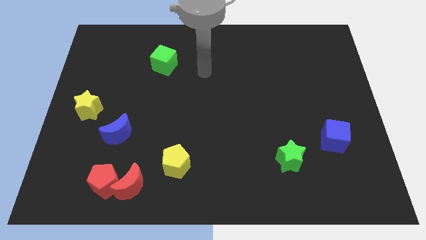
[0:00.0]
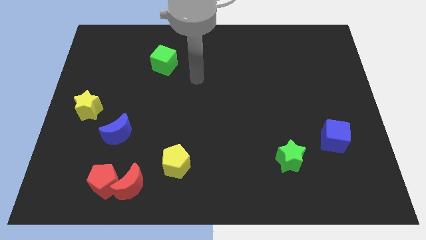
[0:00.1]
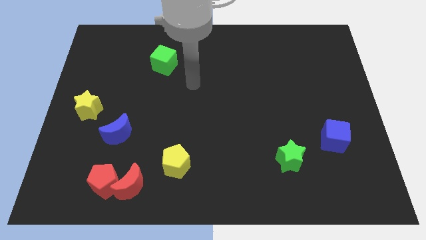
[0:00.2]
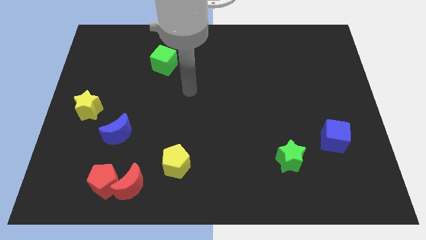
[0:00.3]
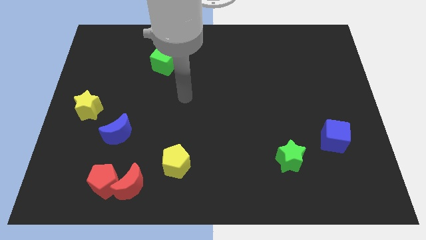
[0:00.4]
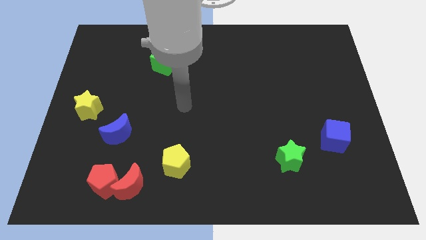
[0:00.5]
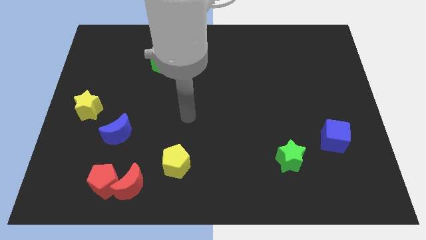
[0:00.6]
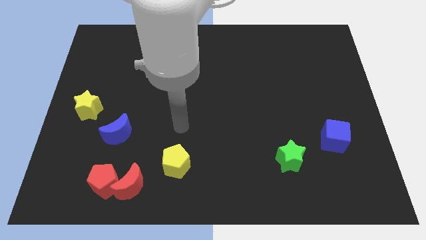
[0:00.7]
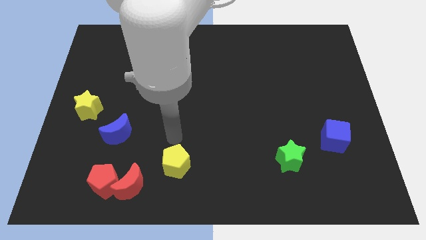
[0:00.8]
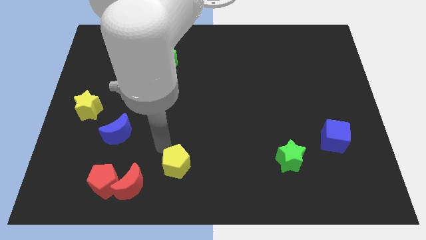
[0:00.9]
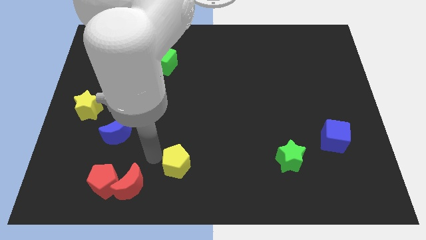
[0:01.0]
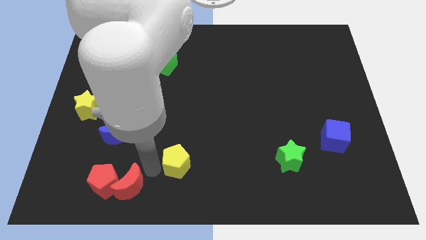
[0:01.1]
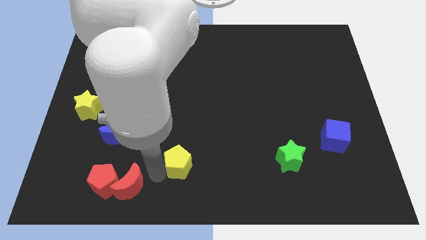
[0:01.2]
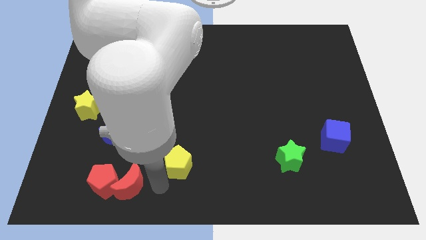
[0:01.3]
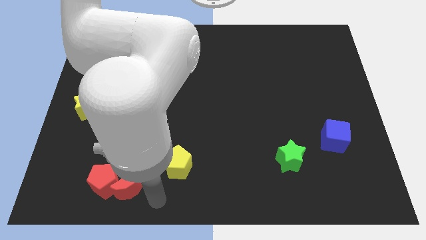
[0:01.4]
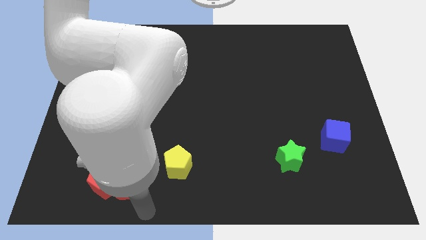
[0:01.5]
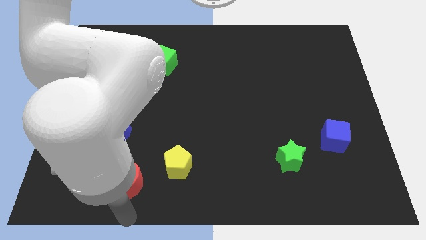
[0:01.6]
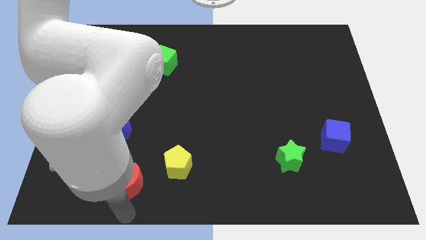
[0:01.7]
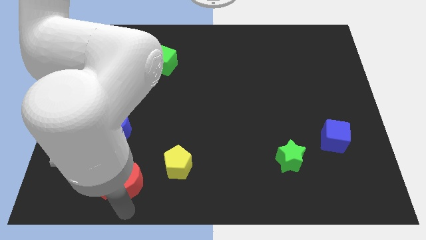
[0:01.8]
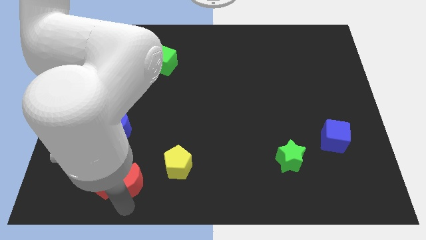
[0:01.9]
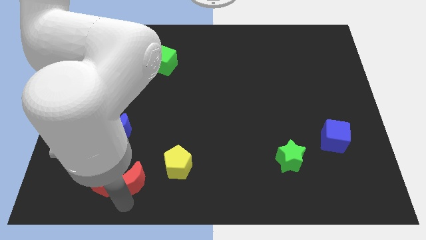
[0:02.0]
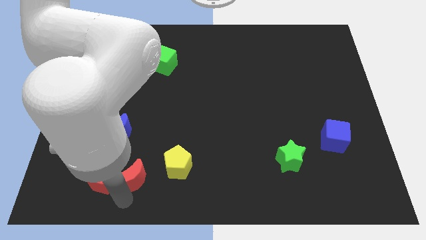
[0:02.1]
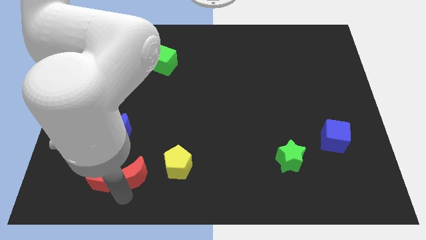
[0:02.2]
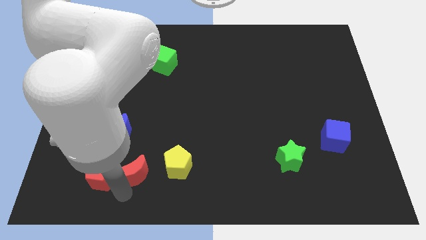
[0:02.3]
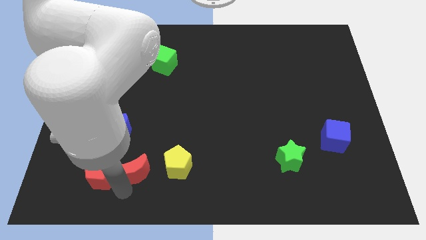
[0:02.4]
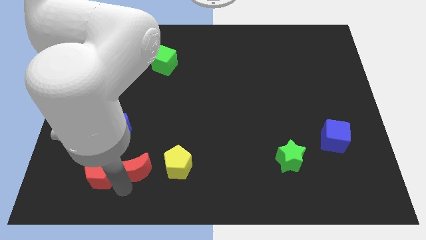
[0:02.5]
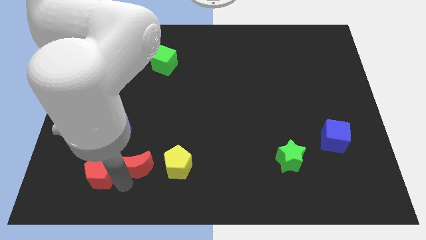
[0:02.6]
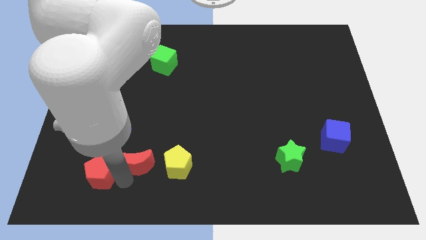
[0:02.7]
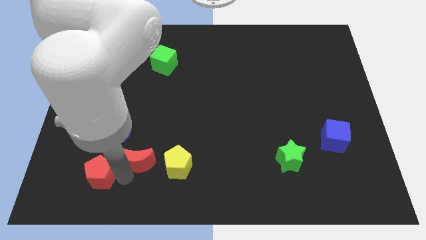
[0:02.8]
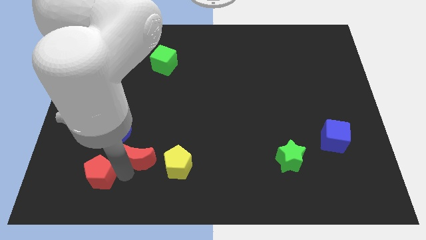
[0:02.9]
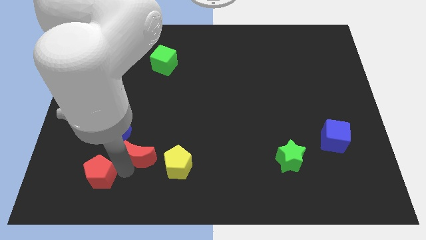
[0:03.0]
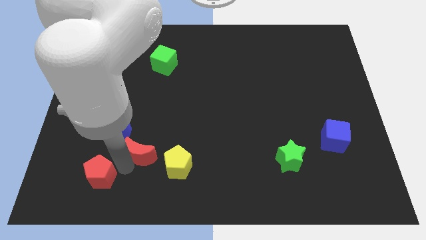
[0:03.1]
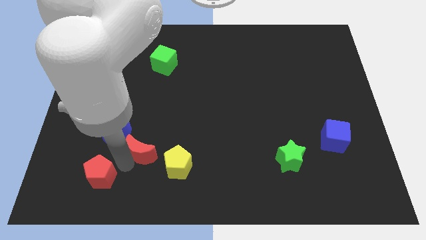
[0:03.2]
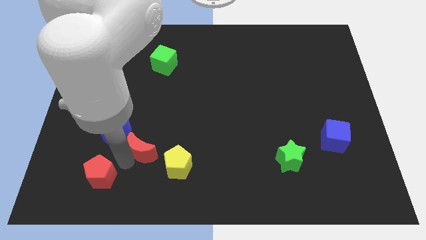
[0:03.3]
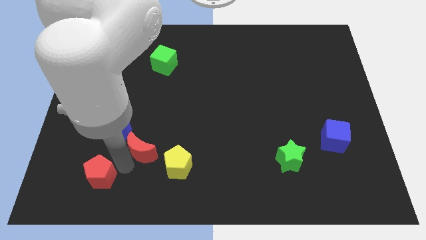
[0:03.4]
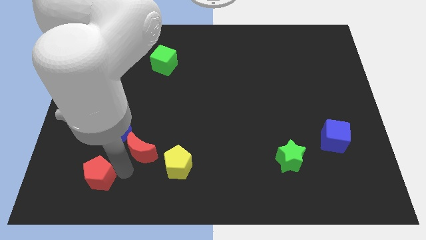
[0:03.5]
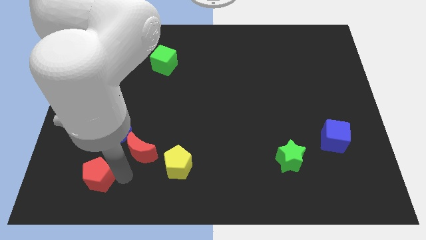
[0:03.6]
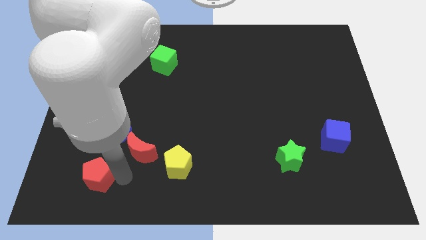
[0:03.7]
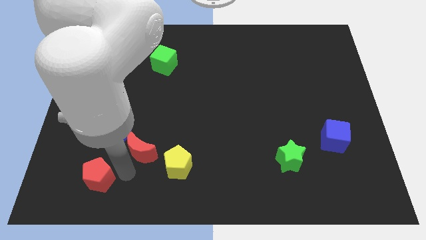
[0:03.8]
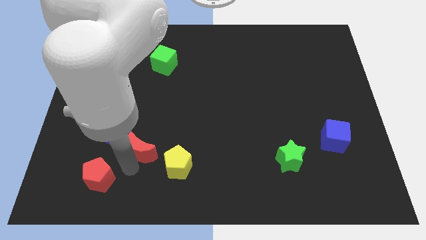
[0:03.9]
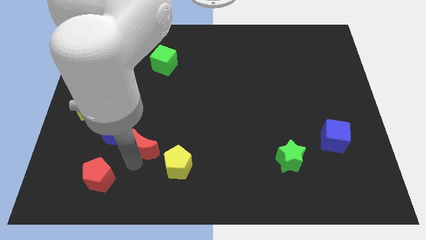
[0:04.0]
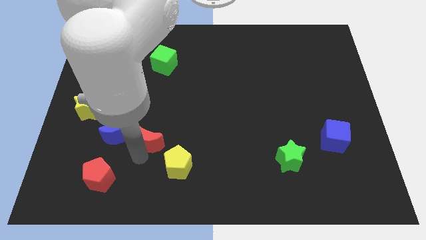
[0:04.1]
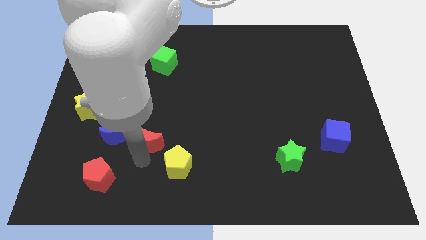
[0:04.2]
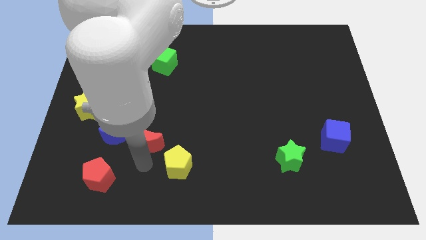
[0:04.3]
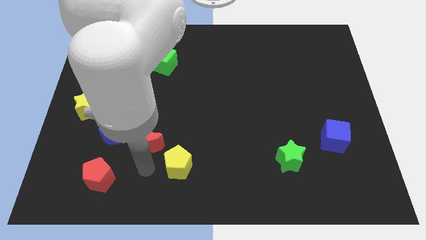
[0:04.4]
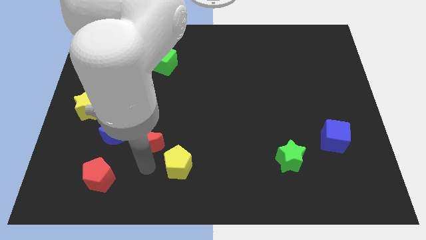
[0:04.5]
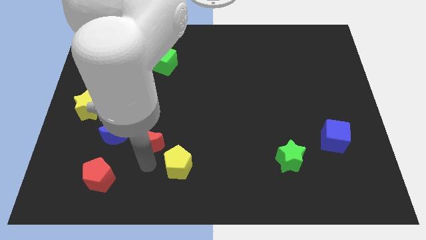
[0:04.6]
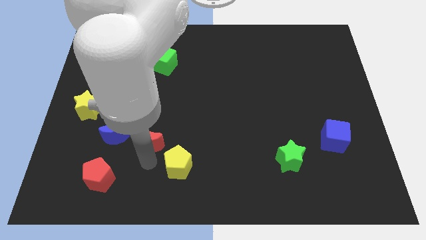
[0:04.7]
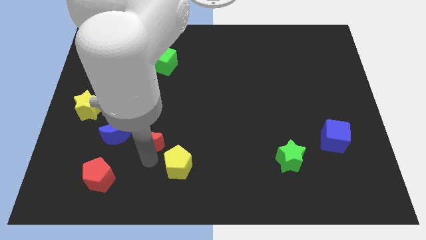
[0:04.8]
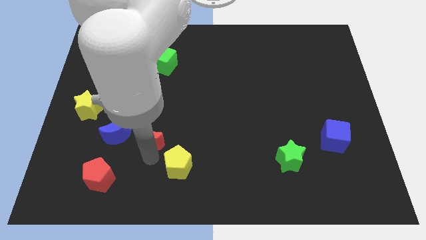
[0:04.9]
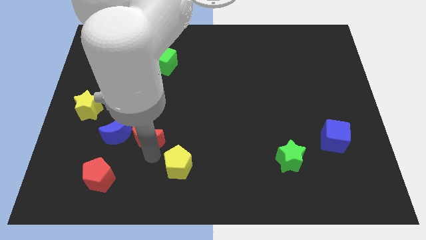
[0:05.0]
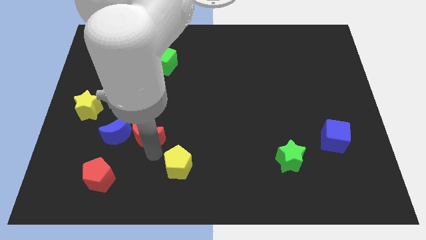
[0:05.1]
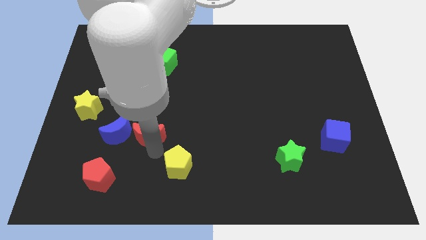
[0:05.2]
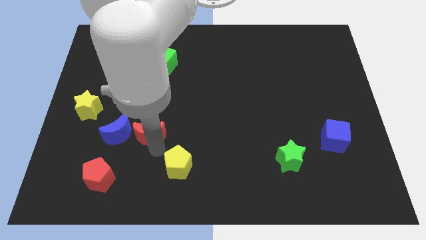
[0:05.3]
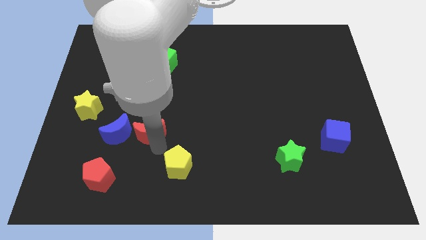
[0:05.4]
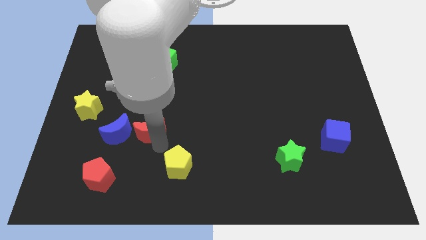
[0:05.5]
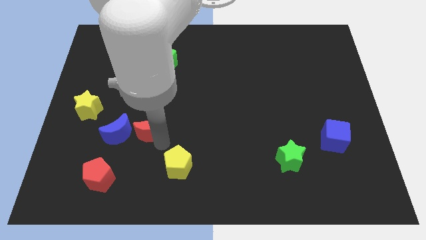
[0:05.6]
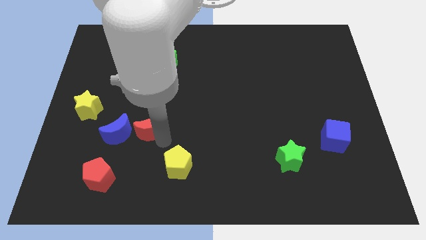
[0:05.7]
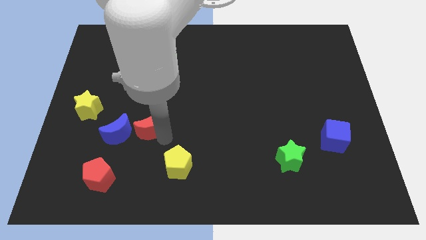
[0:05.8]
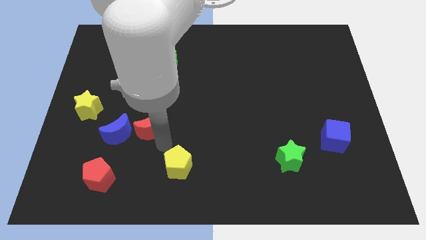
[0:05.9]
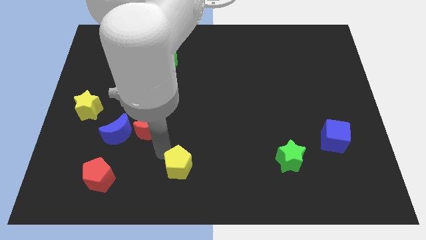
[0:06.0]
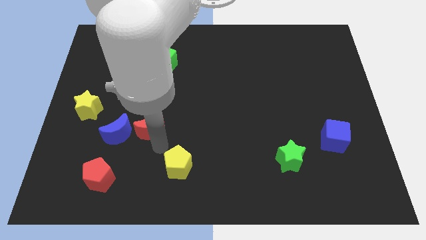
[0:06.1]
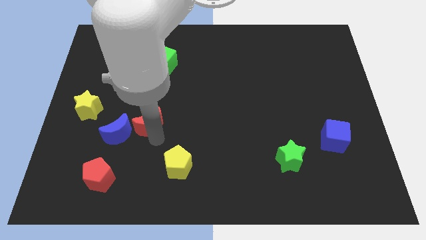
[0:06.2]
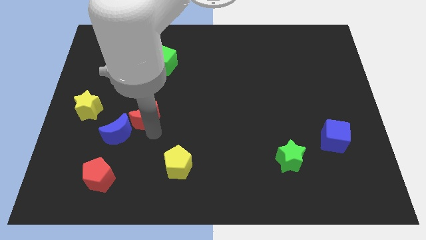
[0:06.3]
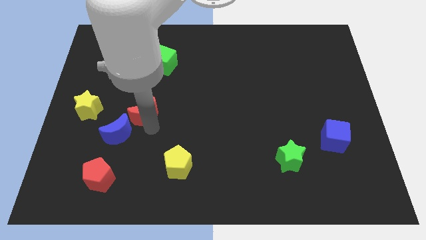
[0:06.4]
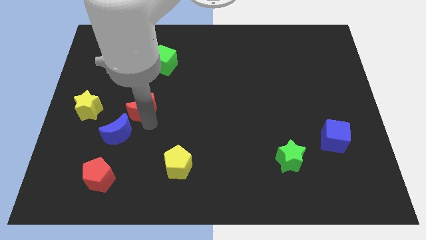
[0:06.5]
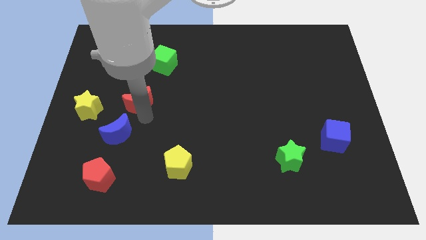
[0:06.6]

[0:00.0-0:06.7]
push the red moon up

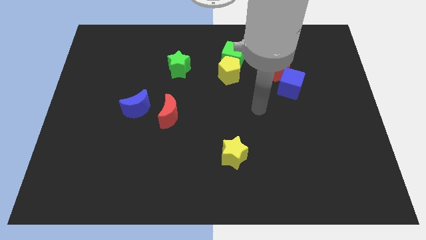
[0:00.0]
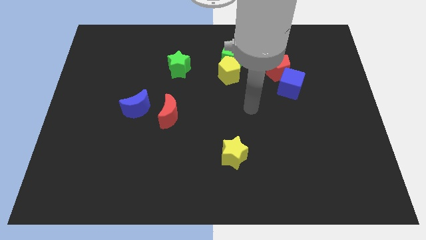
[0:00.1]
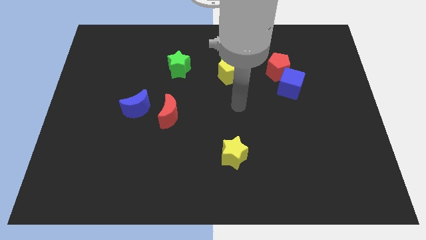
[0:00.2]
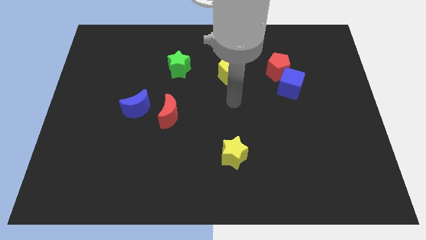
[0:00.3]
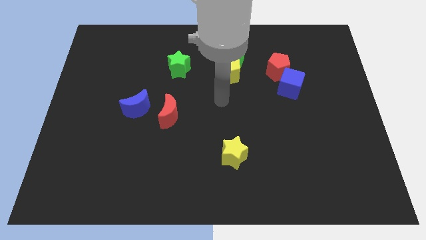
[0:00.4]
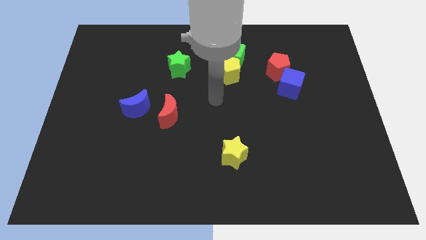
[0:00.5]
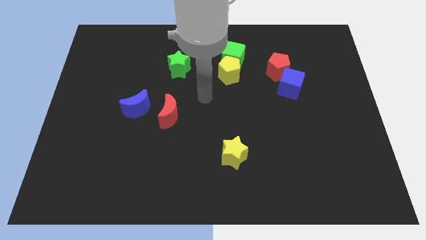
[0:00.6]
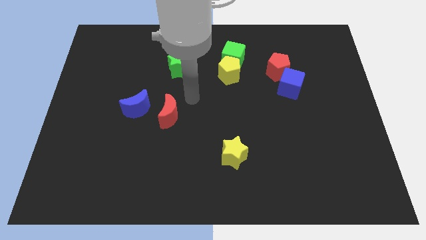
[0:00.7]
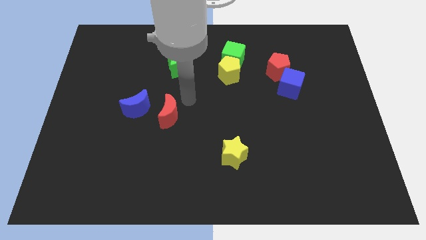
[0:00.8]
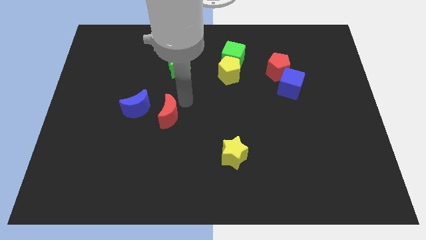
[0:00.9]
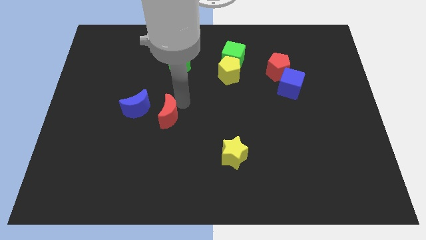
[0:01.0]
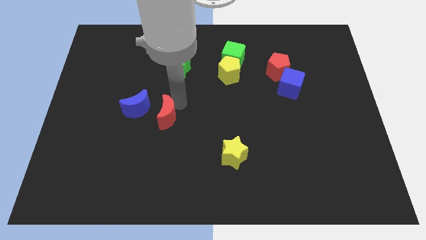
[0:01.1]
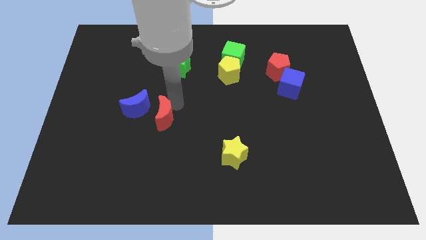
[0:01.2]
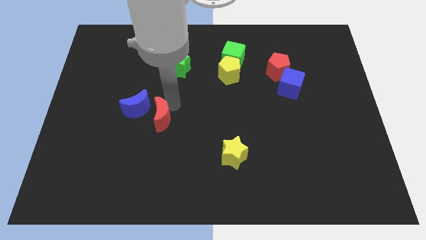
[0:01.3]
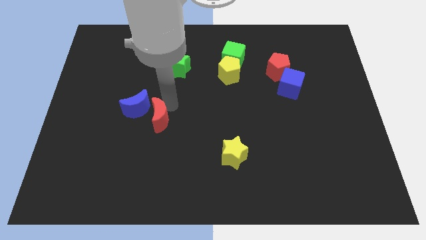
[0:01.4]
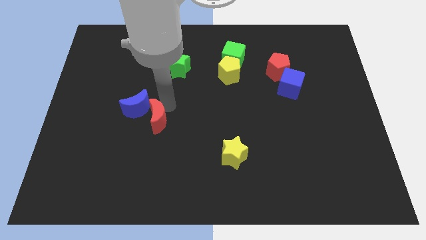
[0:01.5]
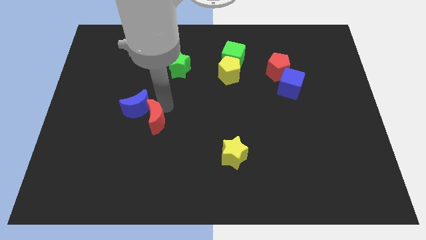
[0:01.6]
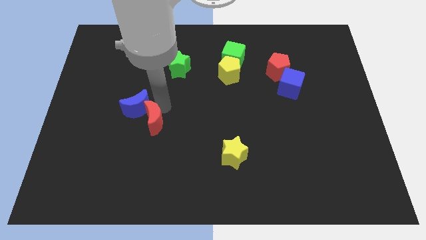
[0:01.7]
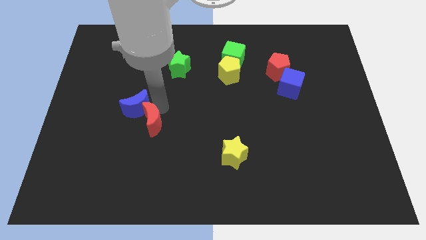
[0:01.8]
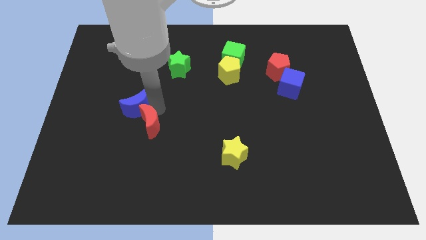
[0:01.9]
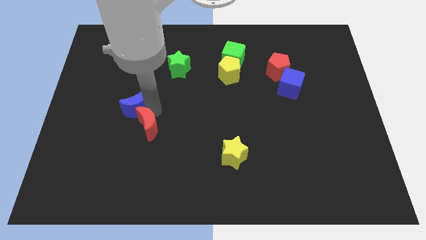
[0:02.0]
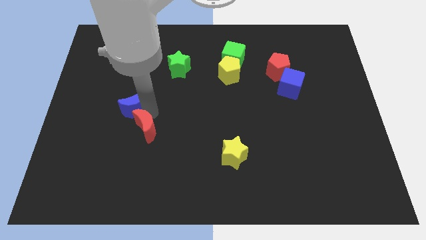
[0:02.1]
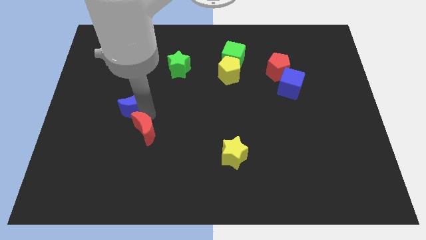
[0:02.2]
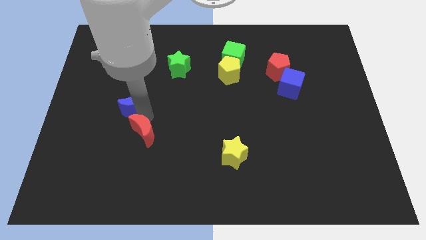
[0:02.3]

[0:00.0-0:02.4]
move the red moon a little bit down and then left
